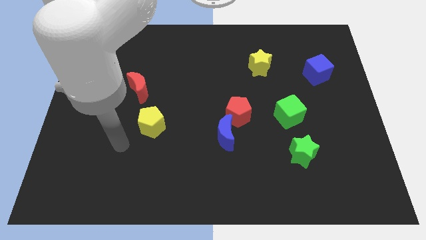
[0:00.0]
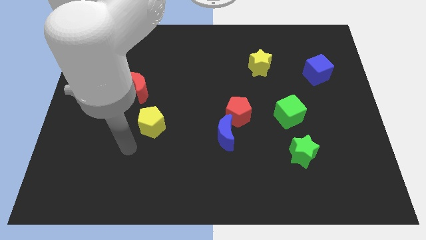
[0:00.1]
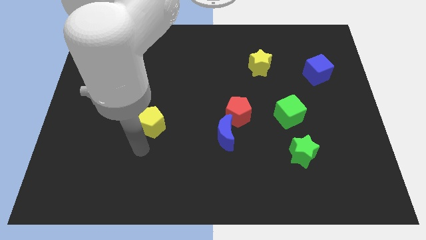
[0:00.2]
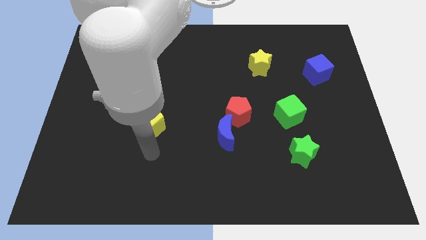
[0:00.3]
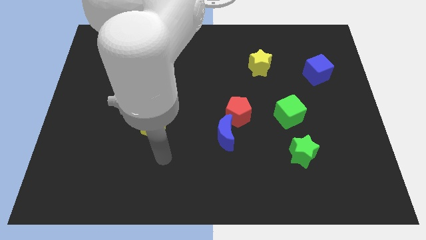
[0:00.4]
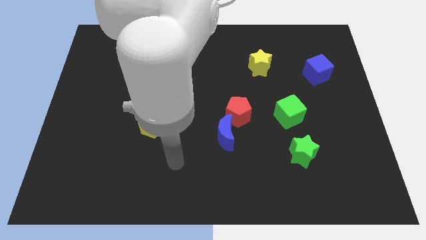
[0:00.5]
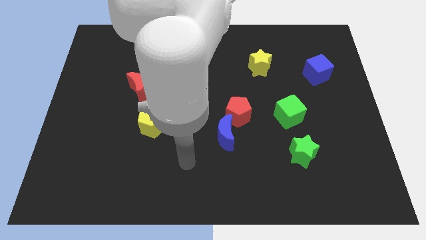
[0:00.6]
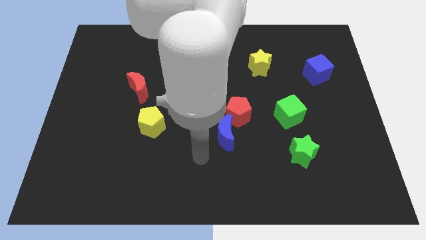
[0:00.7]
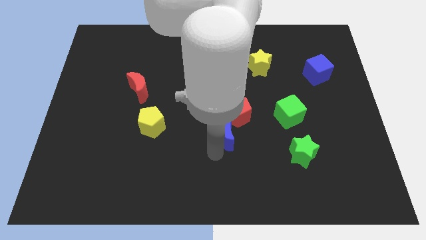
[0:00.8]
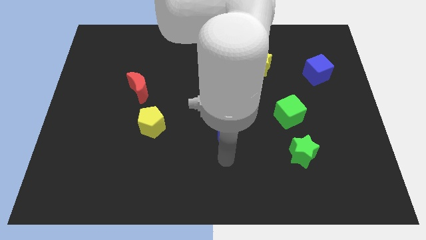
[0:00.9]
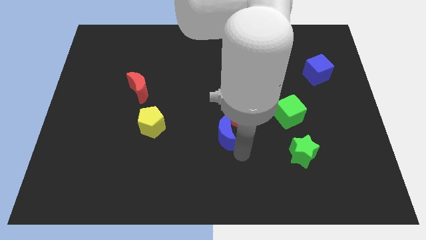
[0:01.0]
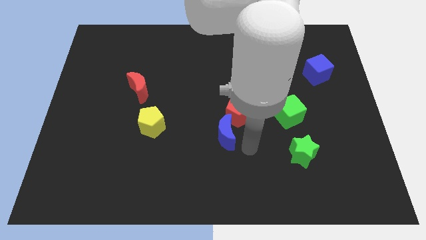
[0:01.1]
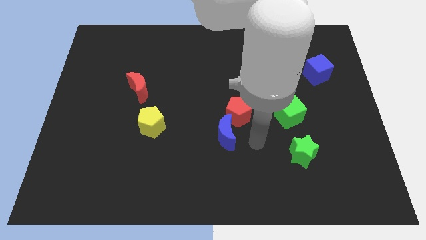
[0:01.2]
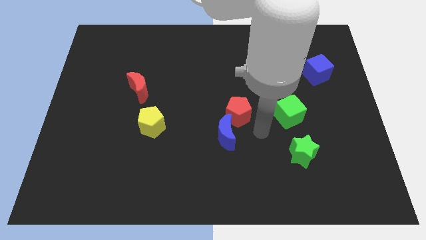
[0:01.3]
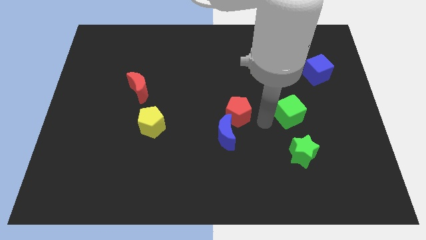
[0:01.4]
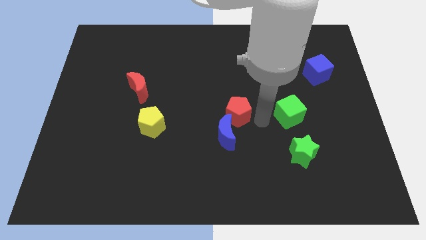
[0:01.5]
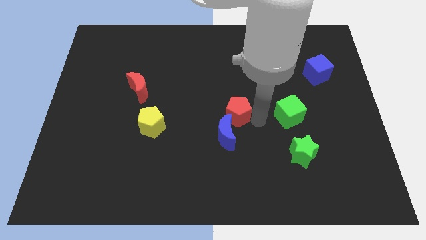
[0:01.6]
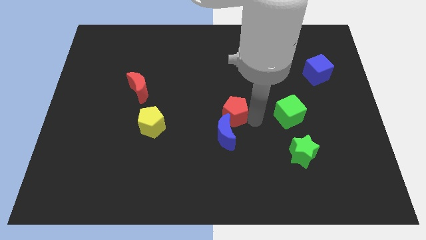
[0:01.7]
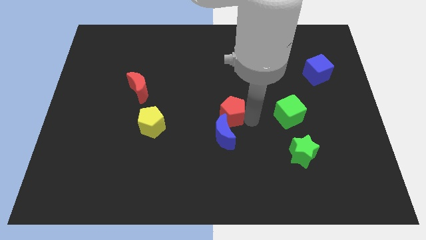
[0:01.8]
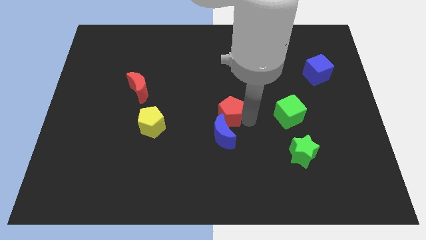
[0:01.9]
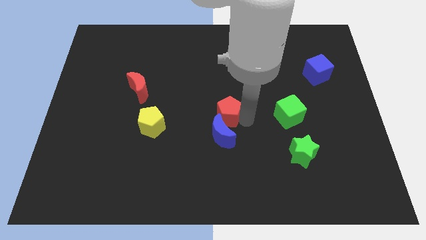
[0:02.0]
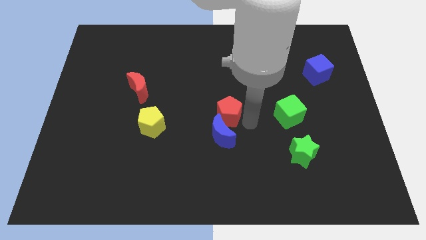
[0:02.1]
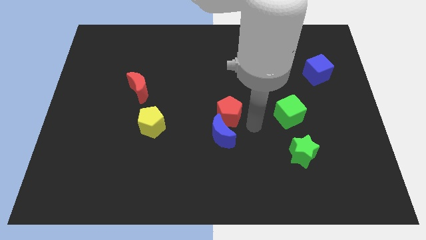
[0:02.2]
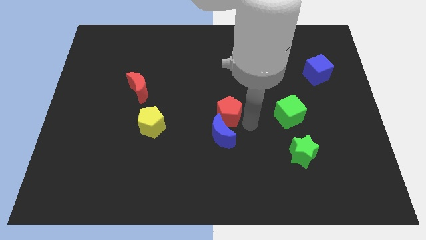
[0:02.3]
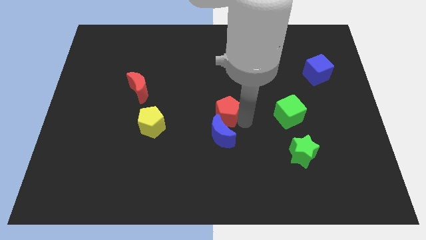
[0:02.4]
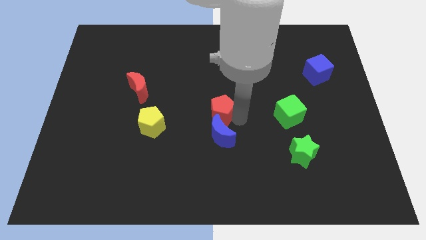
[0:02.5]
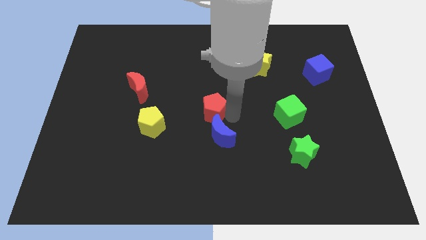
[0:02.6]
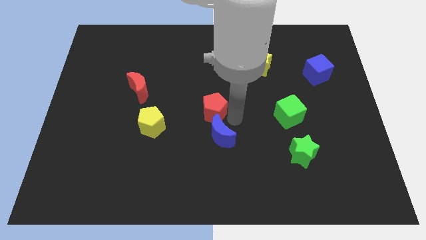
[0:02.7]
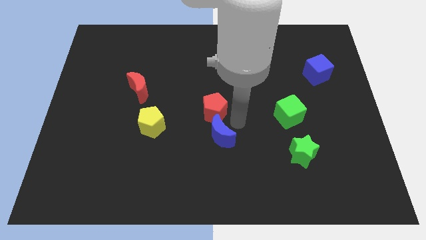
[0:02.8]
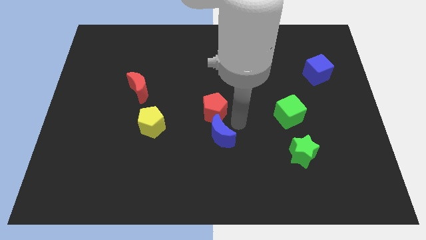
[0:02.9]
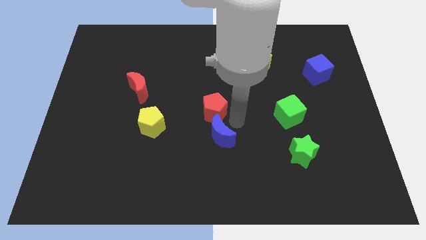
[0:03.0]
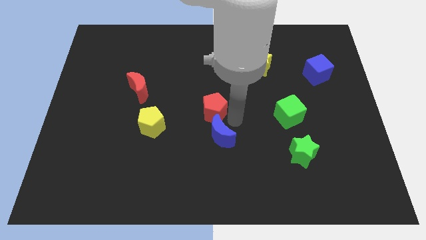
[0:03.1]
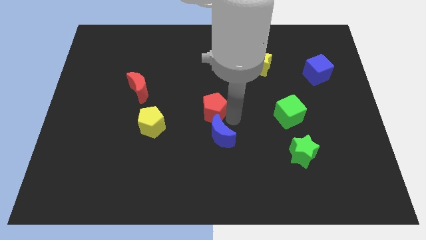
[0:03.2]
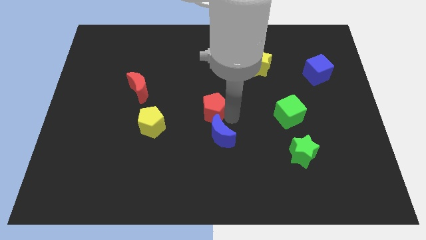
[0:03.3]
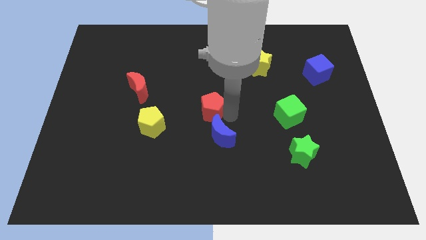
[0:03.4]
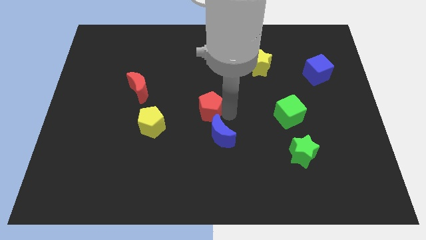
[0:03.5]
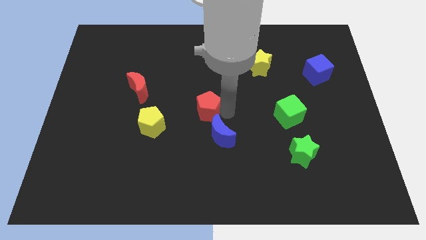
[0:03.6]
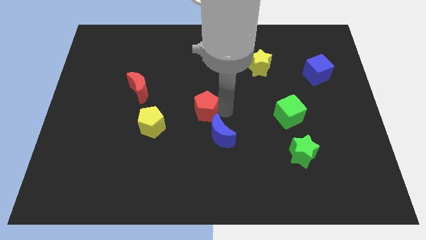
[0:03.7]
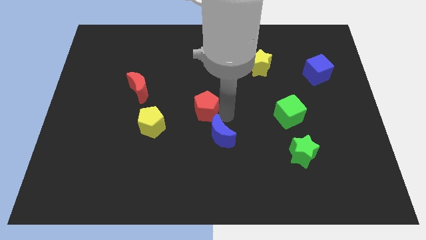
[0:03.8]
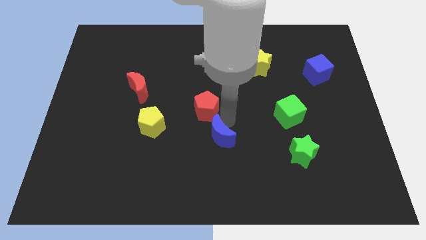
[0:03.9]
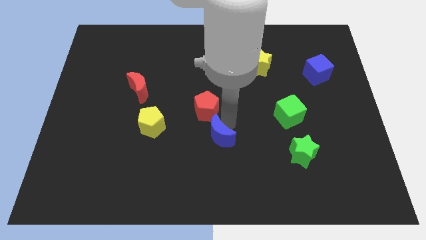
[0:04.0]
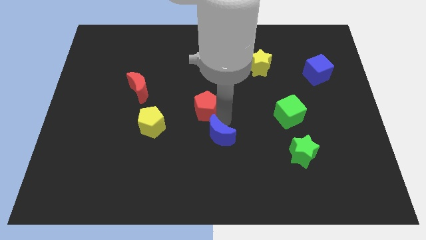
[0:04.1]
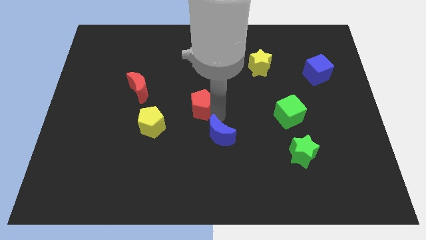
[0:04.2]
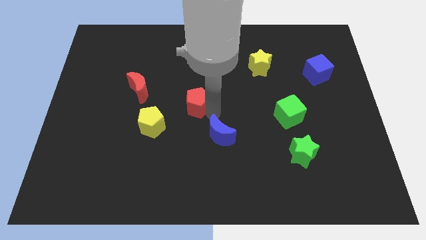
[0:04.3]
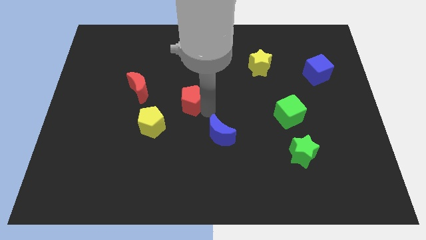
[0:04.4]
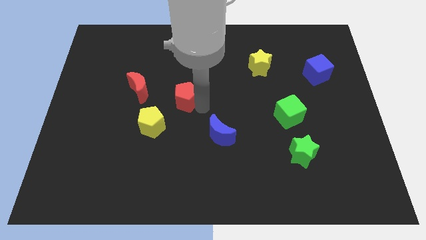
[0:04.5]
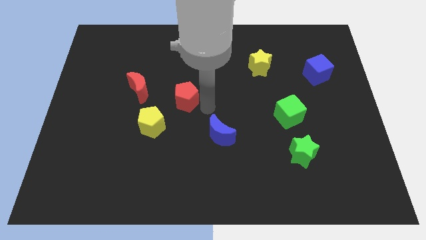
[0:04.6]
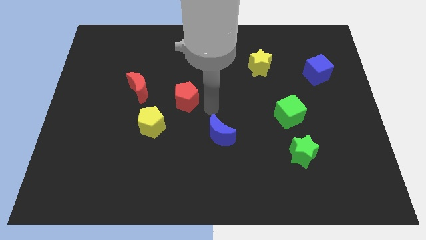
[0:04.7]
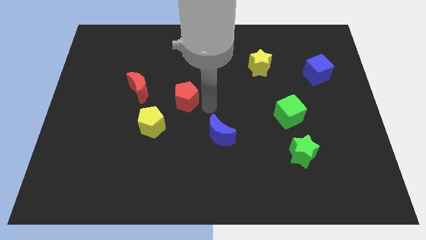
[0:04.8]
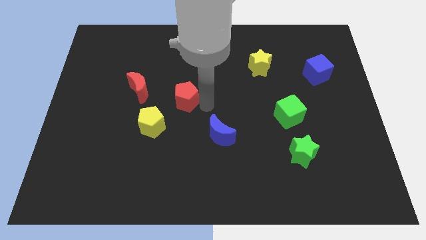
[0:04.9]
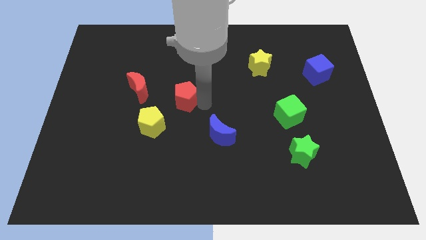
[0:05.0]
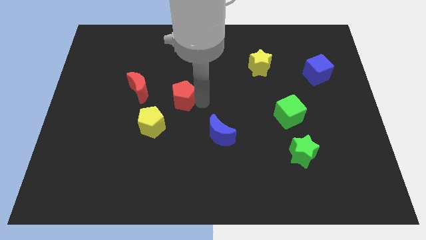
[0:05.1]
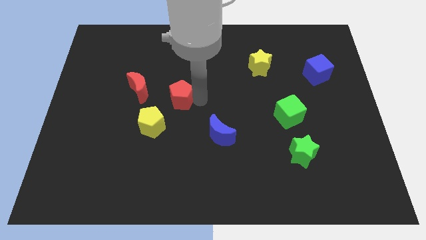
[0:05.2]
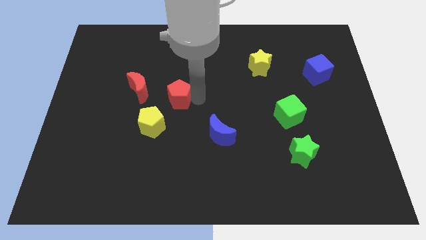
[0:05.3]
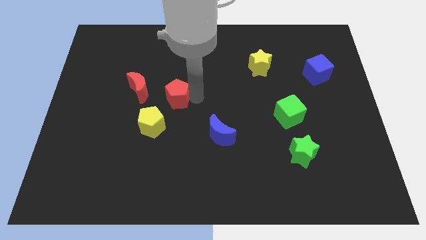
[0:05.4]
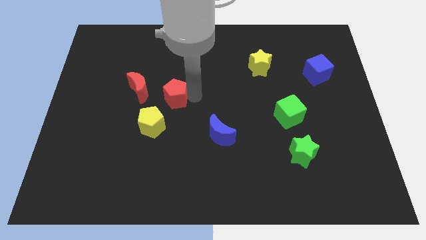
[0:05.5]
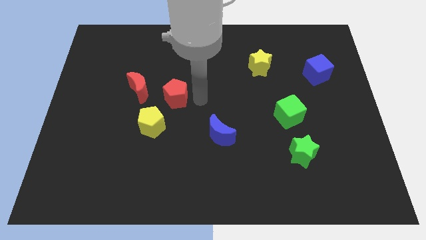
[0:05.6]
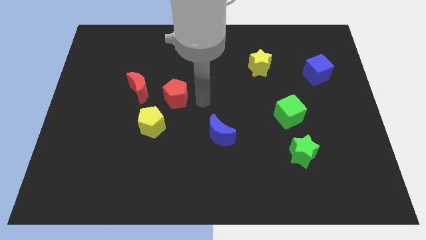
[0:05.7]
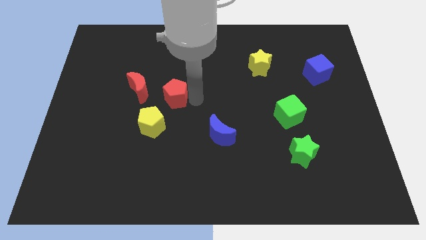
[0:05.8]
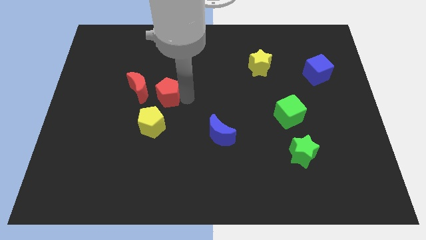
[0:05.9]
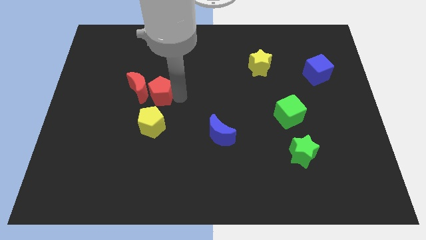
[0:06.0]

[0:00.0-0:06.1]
put the red pentagon close to the red moon

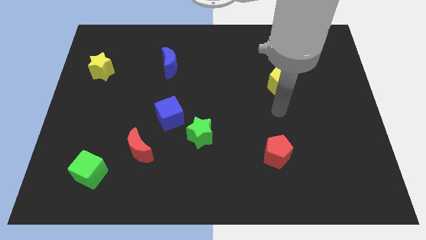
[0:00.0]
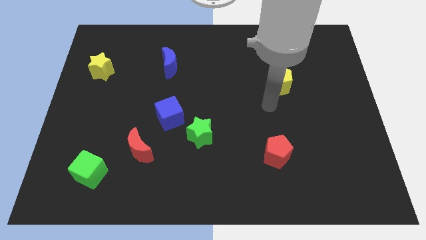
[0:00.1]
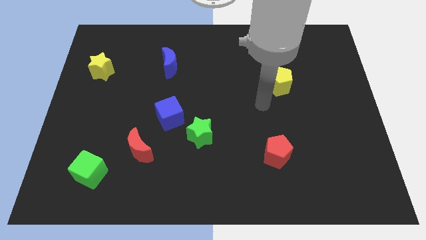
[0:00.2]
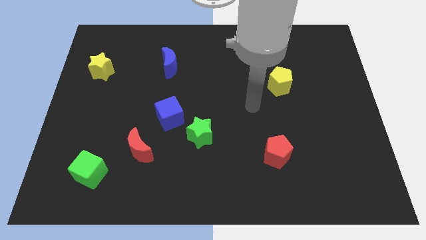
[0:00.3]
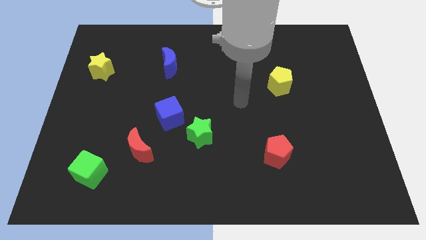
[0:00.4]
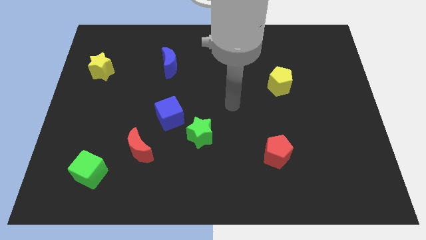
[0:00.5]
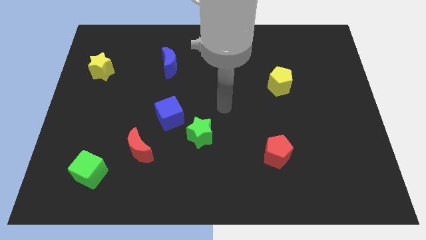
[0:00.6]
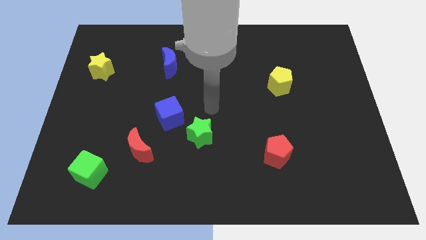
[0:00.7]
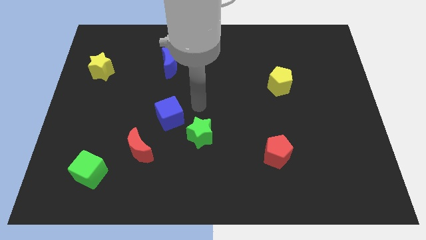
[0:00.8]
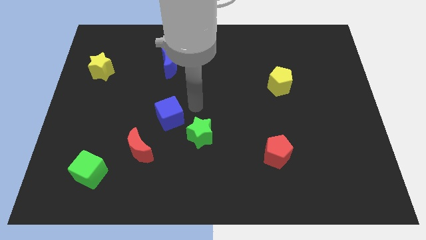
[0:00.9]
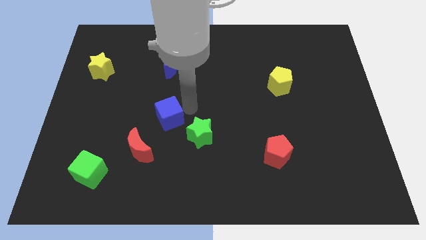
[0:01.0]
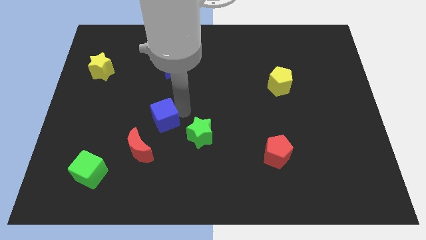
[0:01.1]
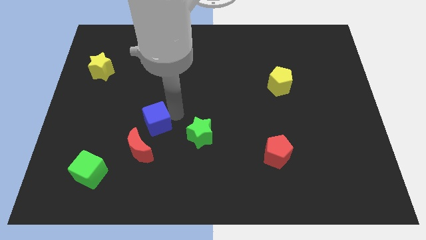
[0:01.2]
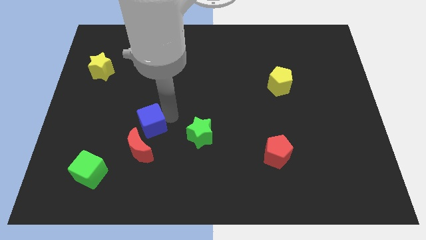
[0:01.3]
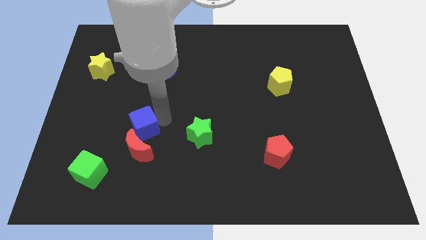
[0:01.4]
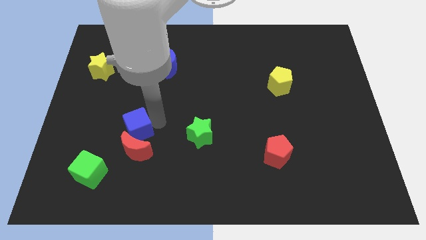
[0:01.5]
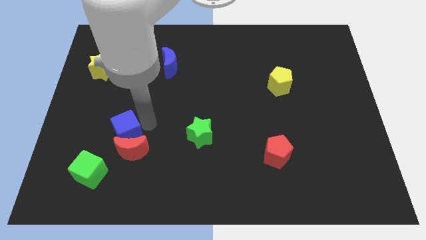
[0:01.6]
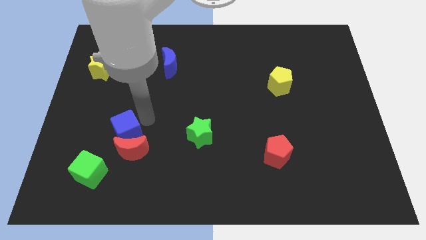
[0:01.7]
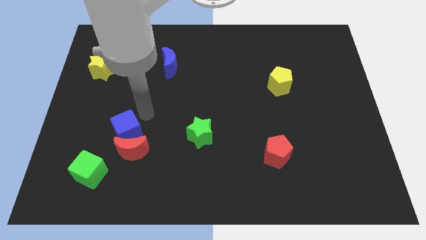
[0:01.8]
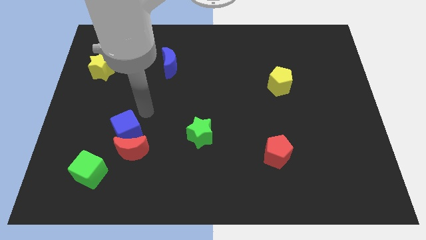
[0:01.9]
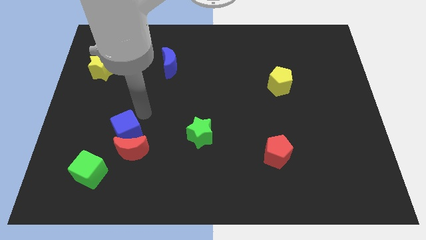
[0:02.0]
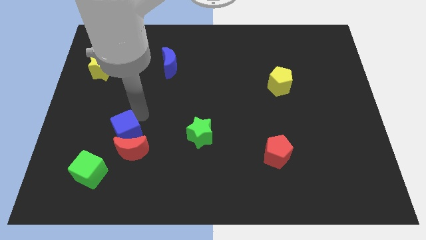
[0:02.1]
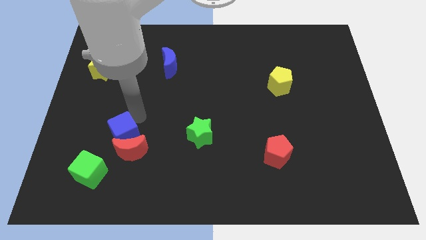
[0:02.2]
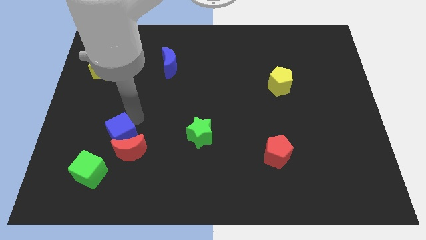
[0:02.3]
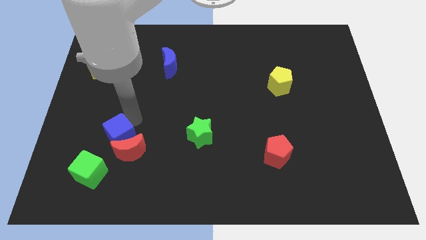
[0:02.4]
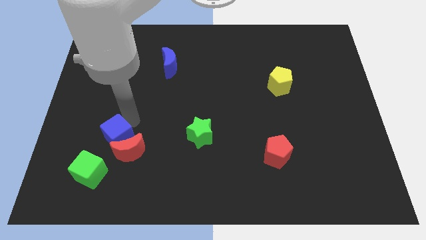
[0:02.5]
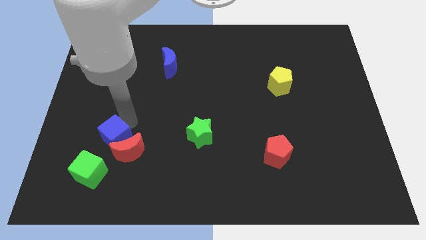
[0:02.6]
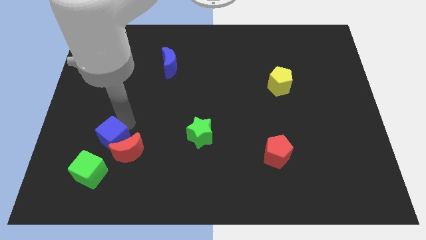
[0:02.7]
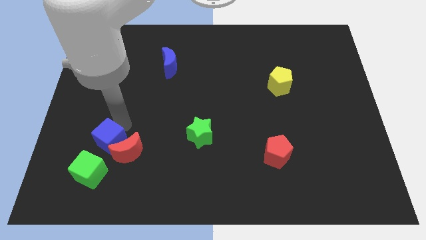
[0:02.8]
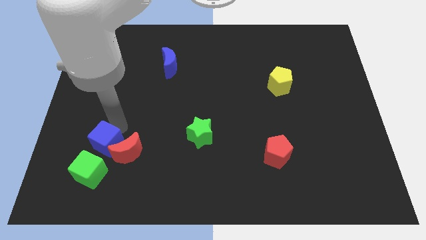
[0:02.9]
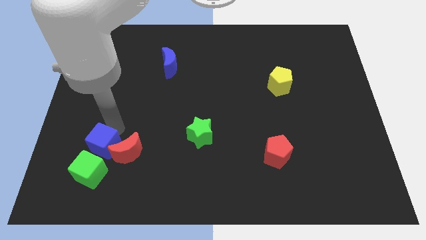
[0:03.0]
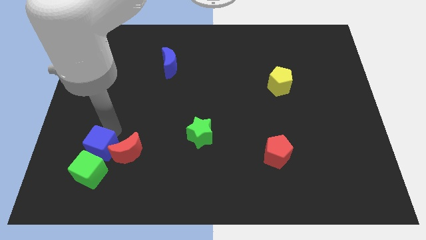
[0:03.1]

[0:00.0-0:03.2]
slide the blue cube to the green cube
